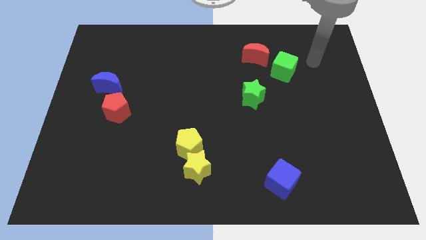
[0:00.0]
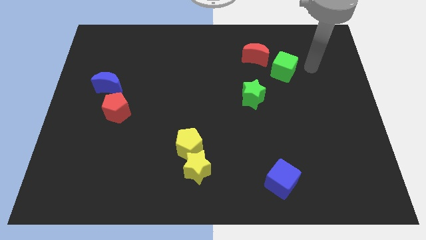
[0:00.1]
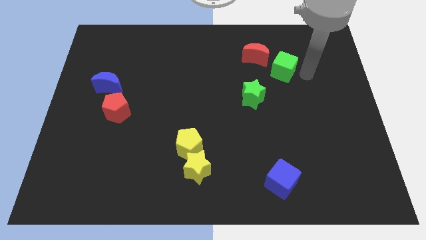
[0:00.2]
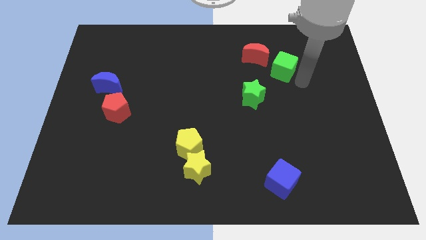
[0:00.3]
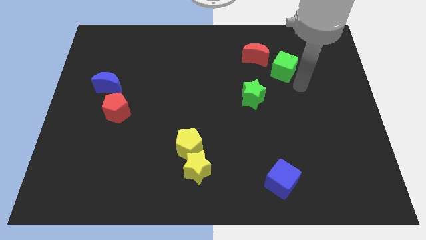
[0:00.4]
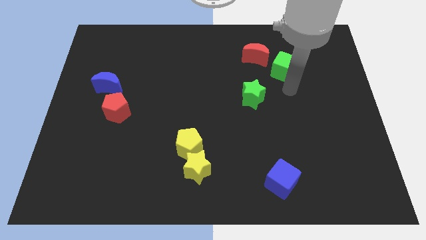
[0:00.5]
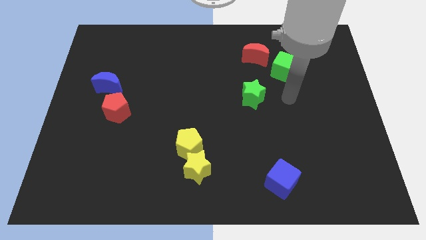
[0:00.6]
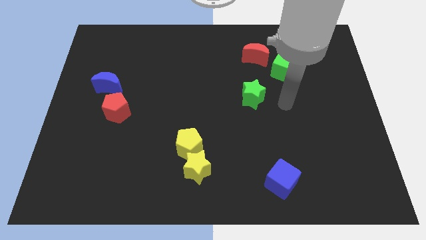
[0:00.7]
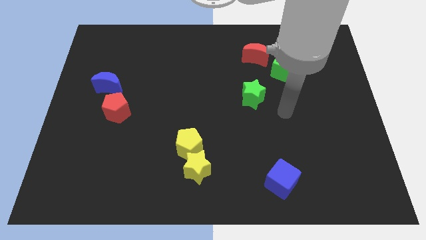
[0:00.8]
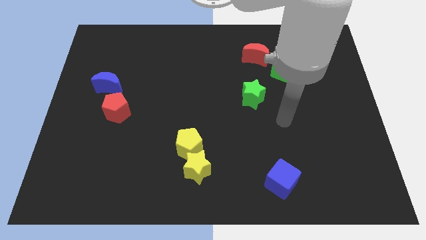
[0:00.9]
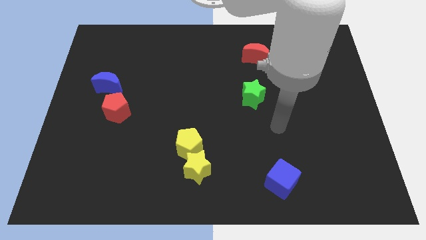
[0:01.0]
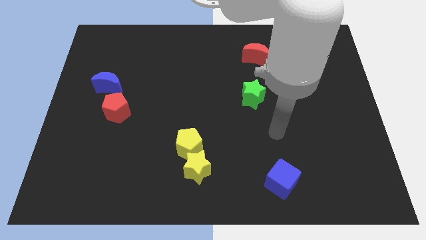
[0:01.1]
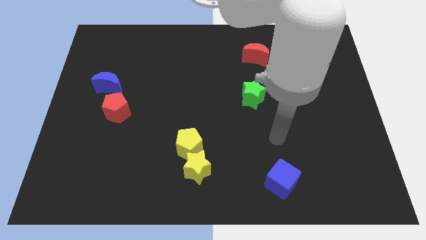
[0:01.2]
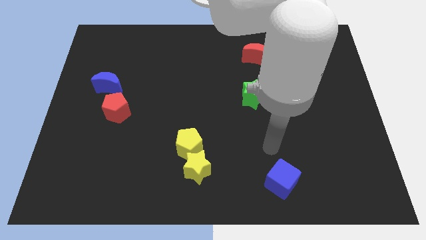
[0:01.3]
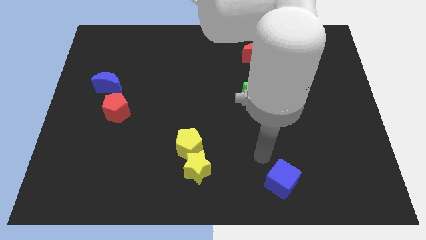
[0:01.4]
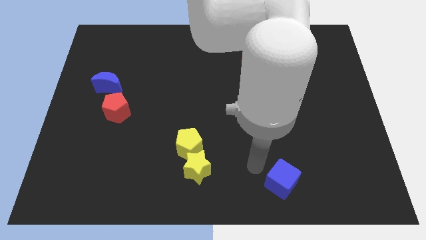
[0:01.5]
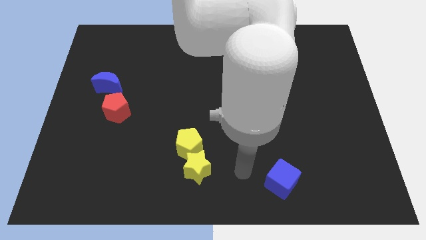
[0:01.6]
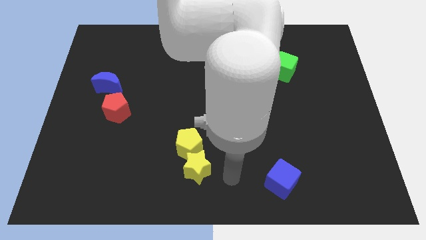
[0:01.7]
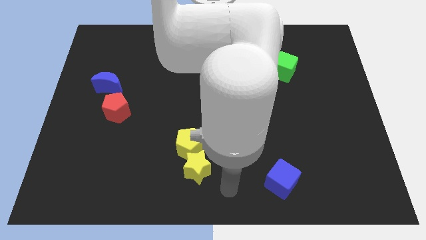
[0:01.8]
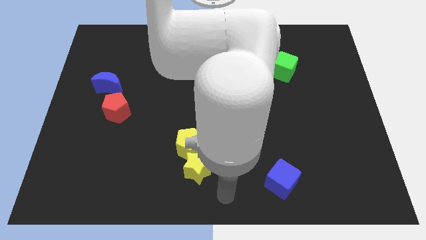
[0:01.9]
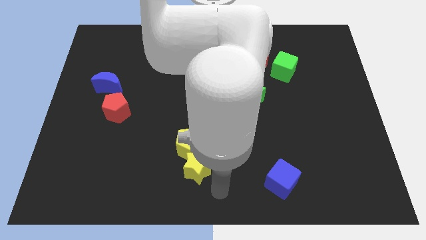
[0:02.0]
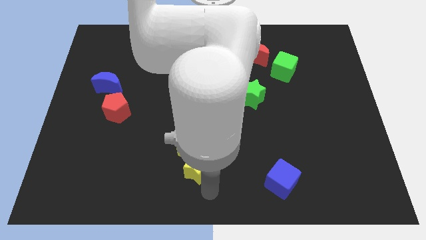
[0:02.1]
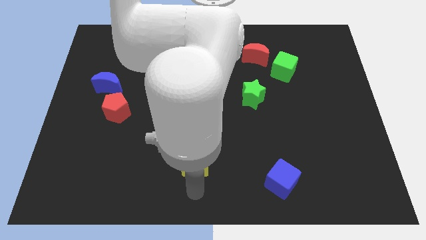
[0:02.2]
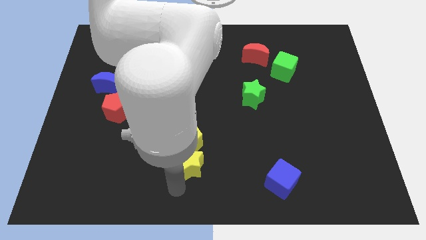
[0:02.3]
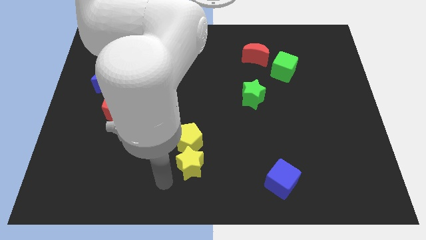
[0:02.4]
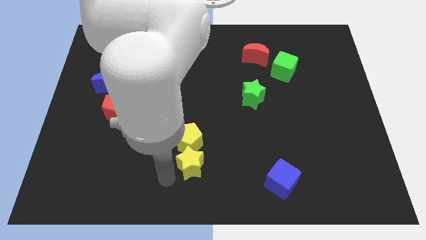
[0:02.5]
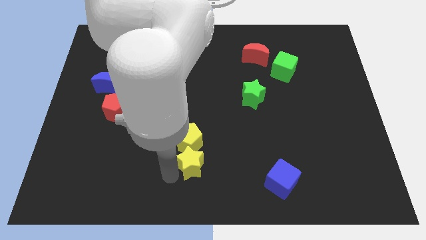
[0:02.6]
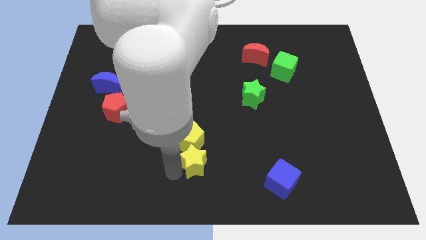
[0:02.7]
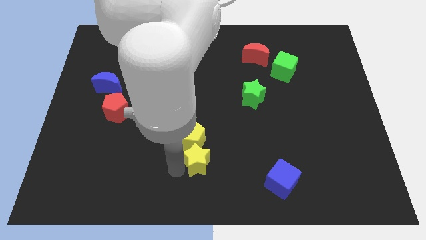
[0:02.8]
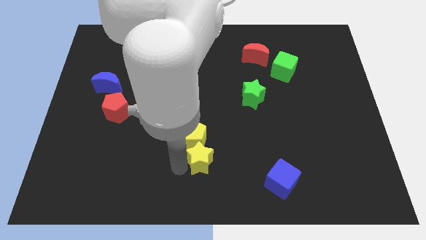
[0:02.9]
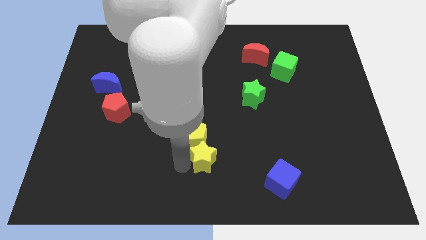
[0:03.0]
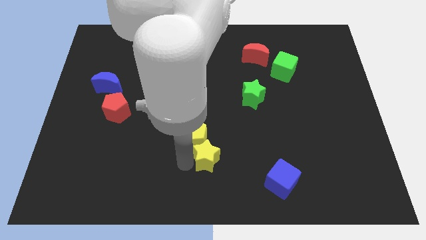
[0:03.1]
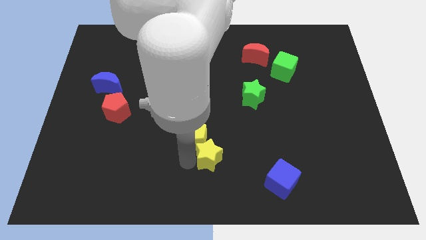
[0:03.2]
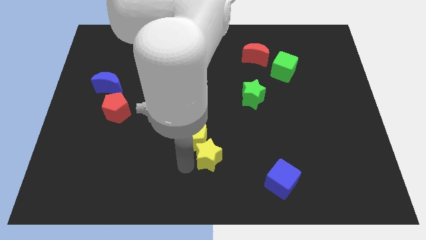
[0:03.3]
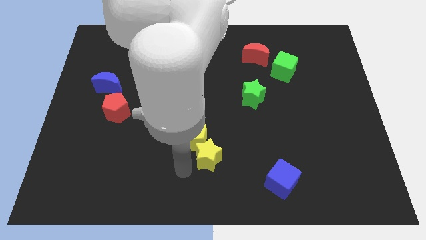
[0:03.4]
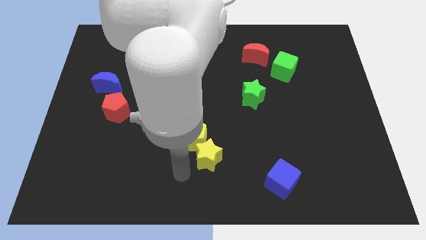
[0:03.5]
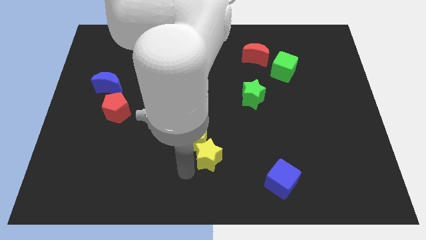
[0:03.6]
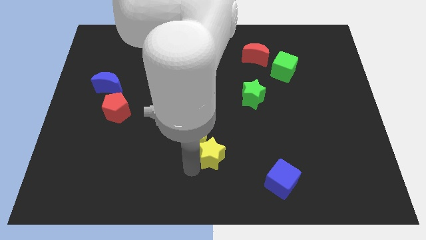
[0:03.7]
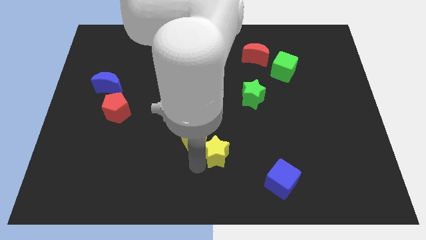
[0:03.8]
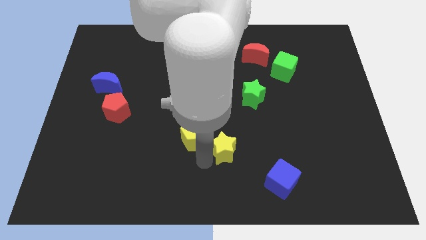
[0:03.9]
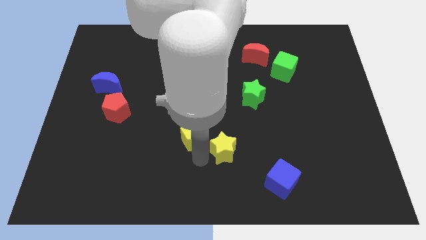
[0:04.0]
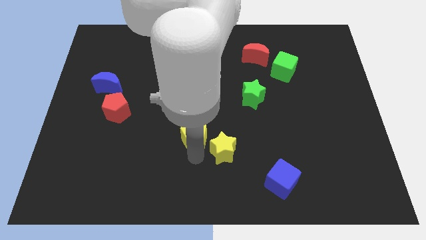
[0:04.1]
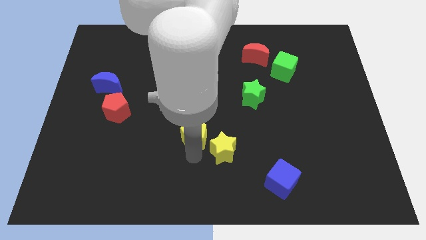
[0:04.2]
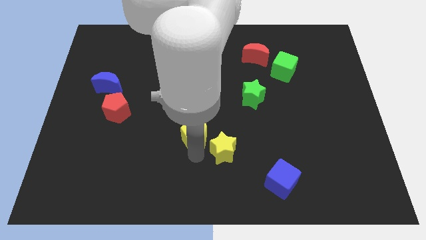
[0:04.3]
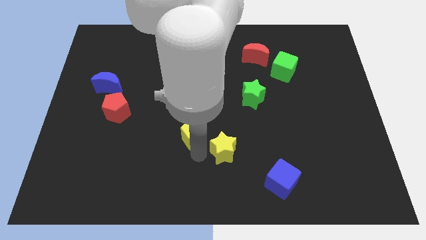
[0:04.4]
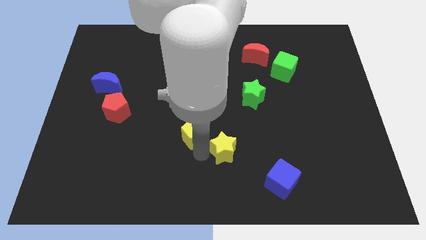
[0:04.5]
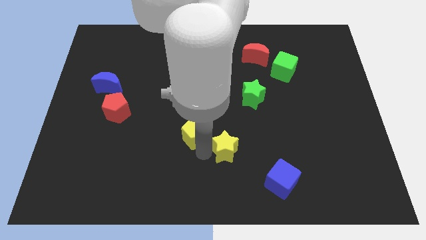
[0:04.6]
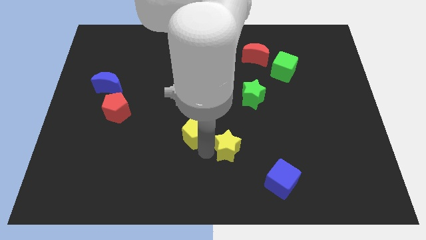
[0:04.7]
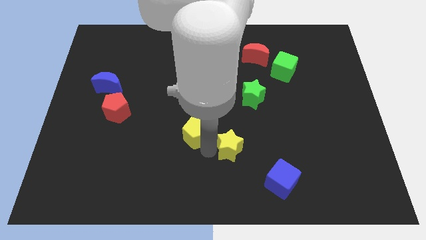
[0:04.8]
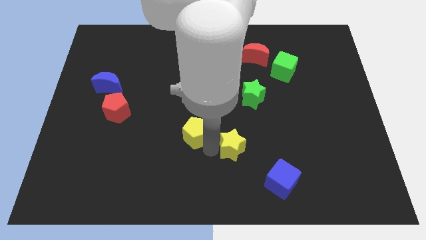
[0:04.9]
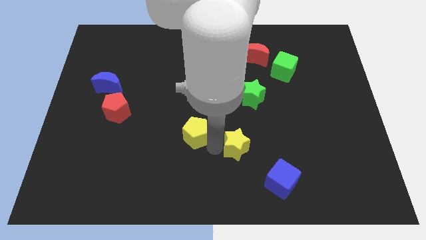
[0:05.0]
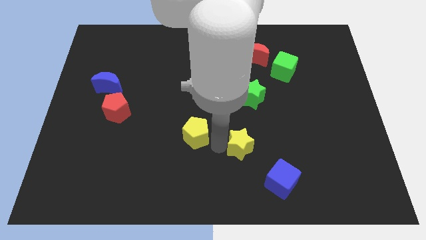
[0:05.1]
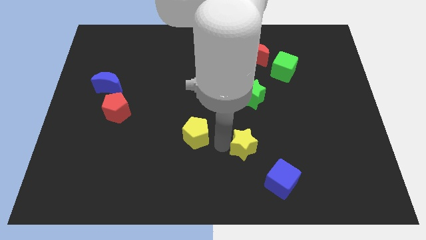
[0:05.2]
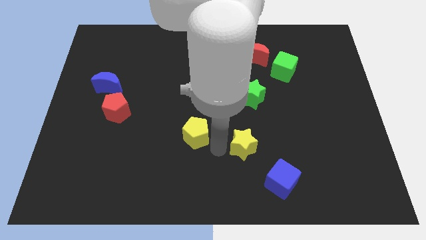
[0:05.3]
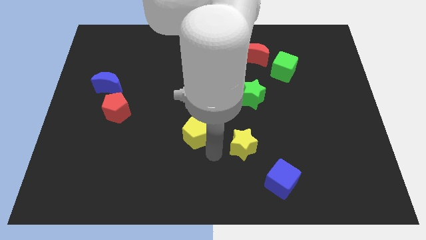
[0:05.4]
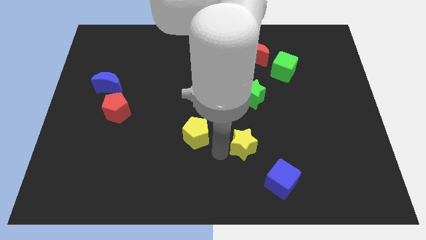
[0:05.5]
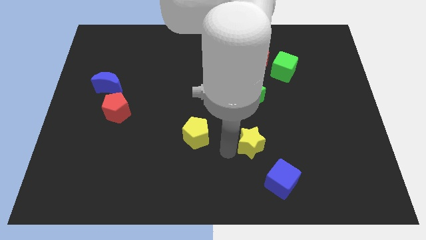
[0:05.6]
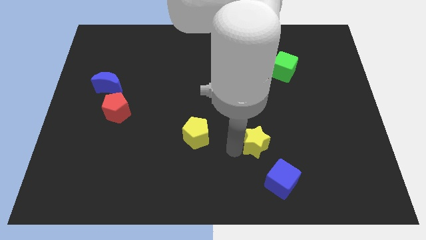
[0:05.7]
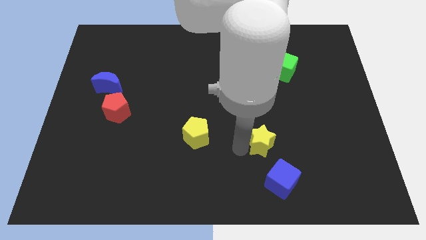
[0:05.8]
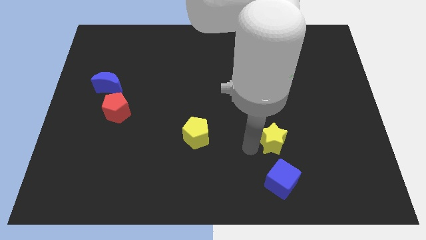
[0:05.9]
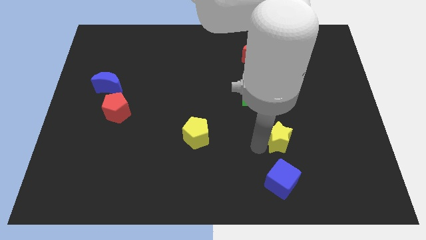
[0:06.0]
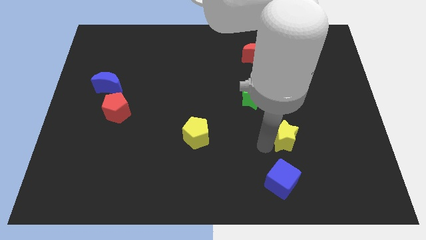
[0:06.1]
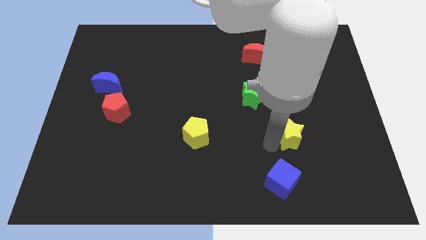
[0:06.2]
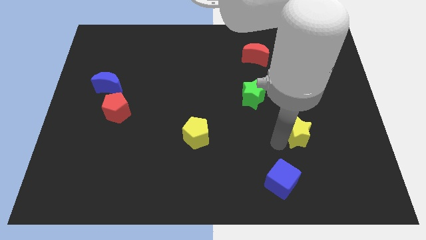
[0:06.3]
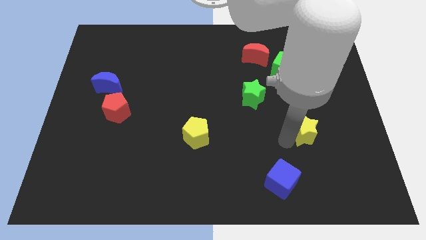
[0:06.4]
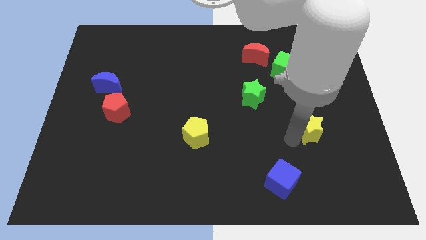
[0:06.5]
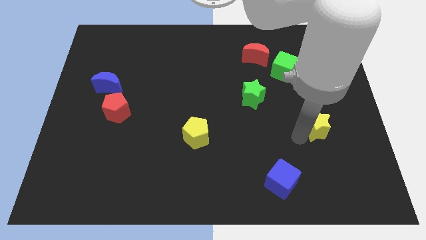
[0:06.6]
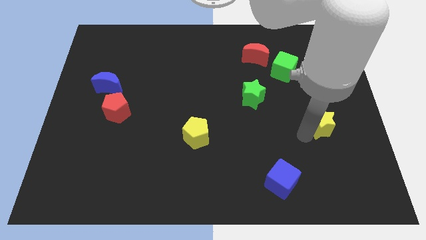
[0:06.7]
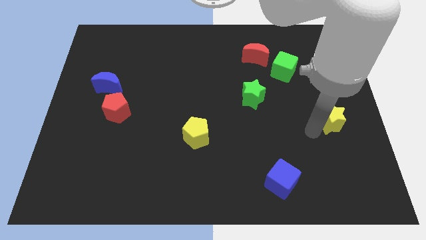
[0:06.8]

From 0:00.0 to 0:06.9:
push the yellow star to the right side of the board
